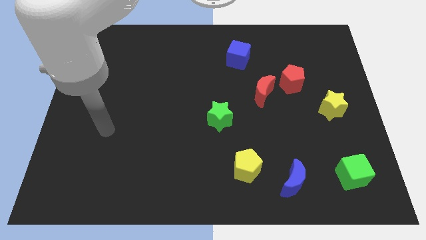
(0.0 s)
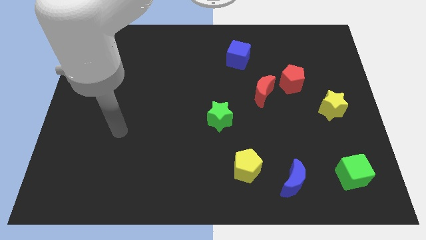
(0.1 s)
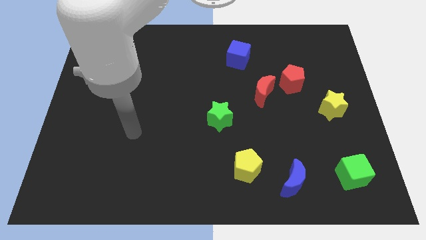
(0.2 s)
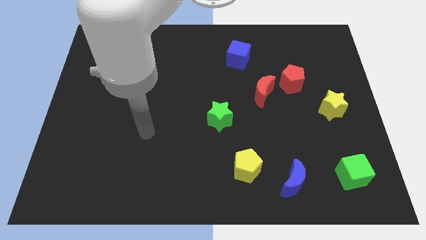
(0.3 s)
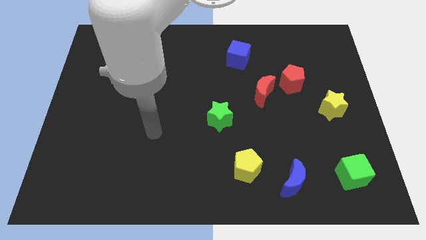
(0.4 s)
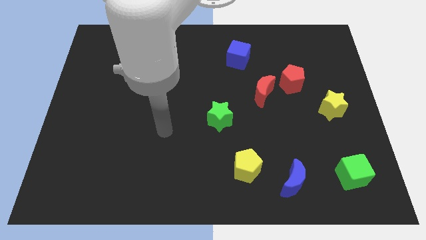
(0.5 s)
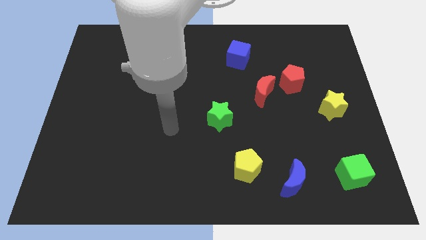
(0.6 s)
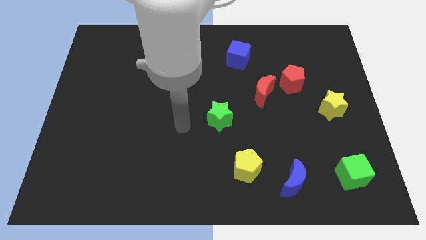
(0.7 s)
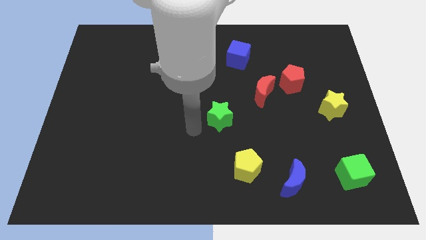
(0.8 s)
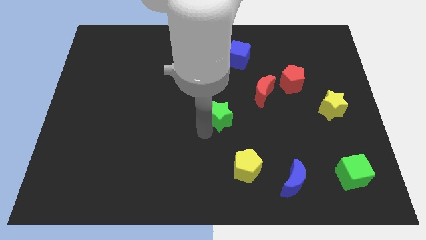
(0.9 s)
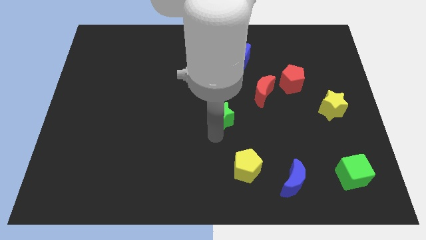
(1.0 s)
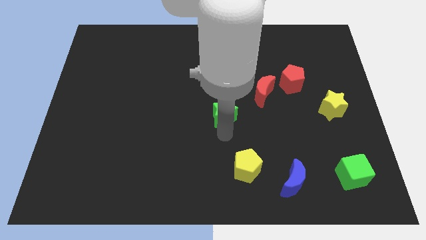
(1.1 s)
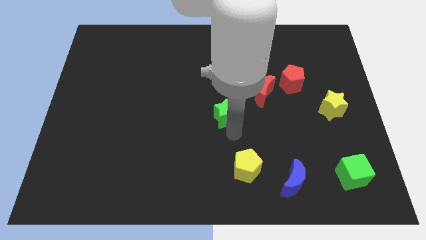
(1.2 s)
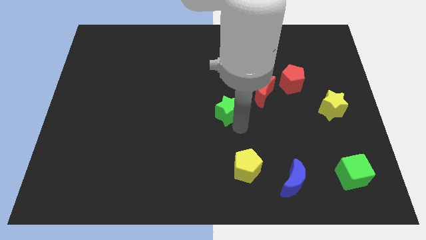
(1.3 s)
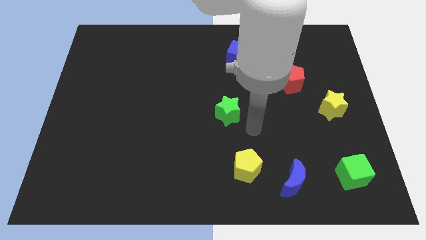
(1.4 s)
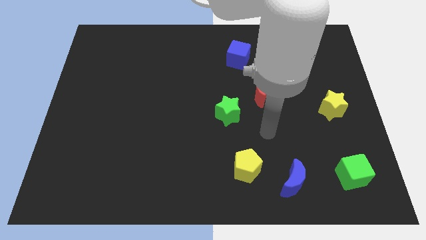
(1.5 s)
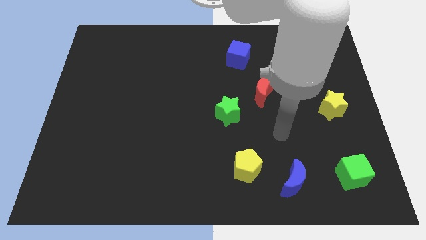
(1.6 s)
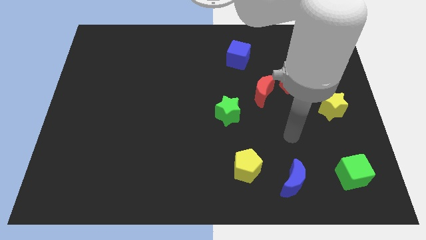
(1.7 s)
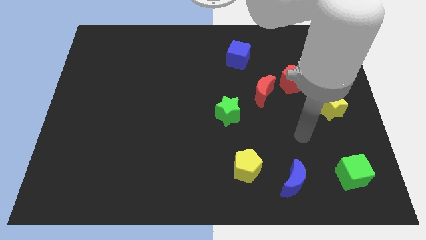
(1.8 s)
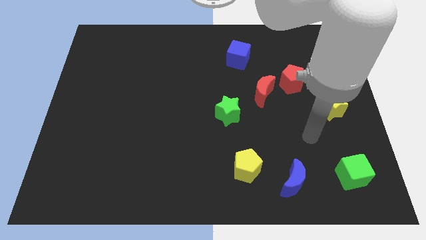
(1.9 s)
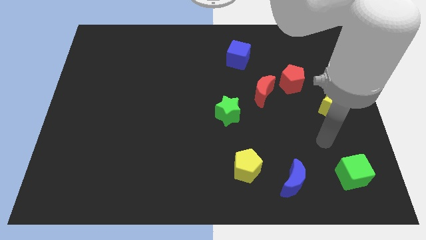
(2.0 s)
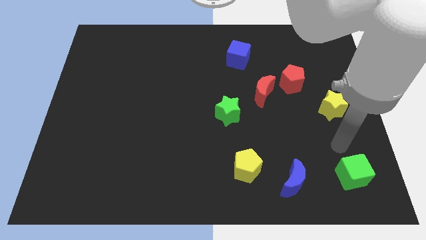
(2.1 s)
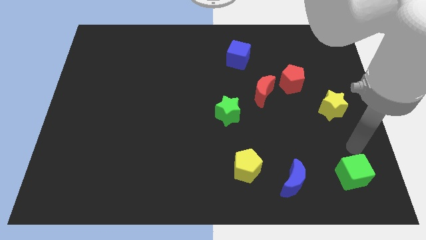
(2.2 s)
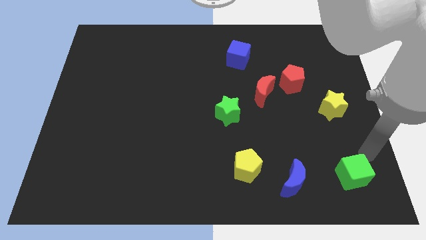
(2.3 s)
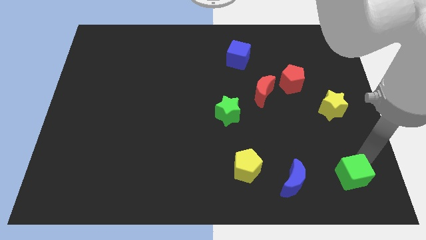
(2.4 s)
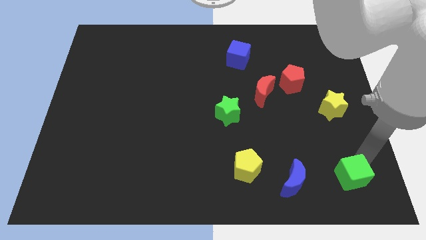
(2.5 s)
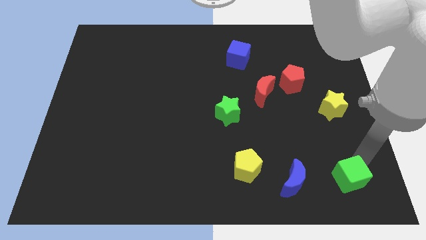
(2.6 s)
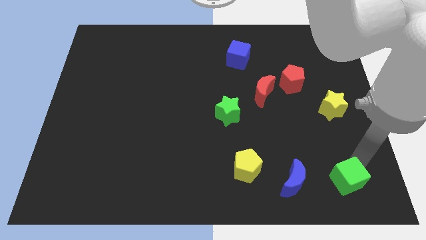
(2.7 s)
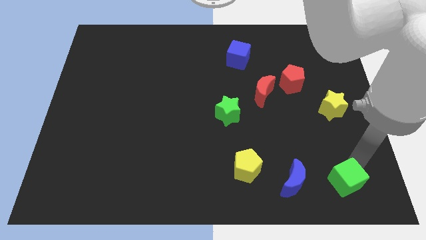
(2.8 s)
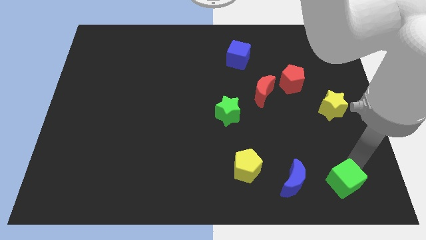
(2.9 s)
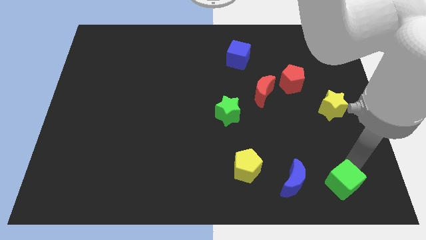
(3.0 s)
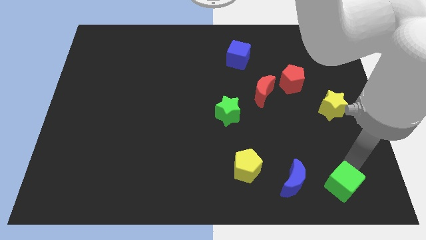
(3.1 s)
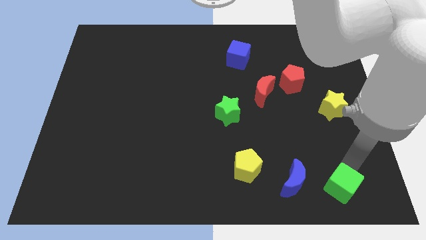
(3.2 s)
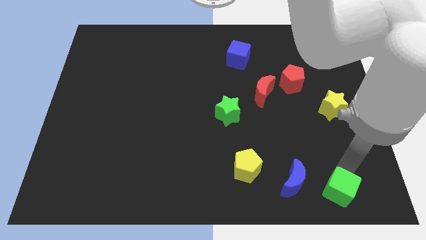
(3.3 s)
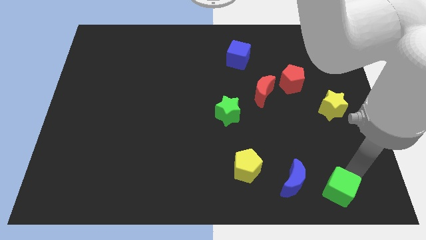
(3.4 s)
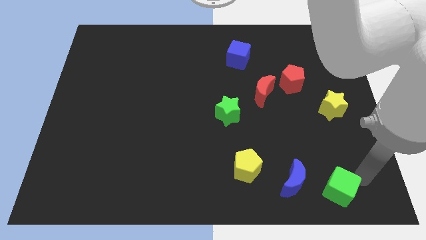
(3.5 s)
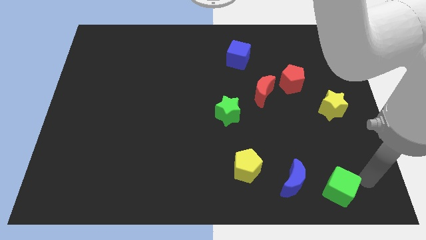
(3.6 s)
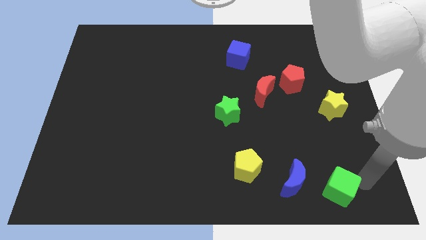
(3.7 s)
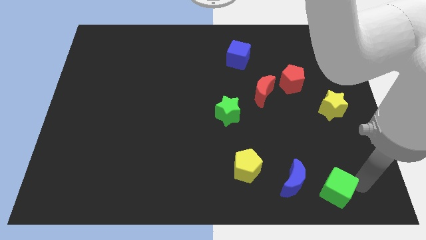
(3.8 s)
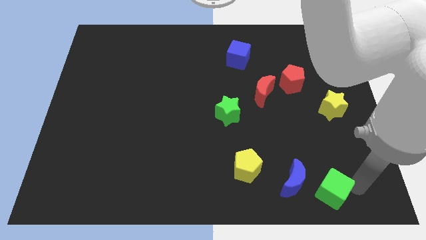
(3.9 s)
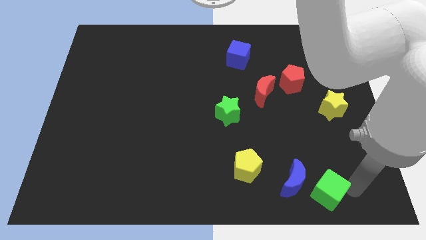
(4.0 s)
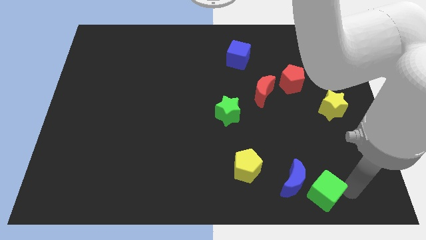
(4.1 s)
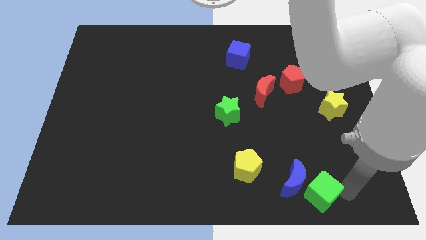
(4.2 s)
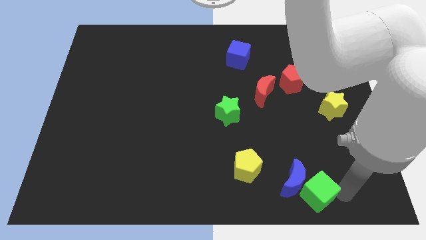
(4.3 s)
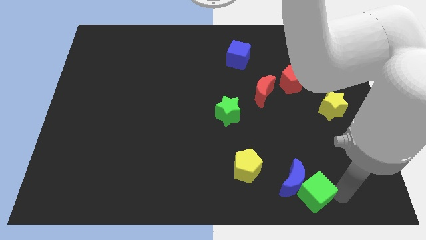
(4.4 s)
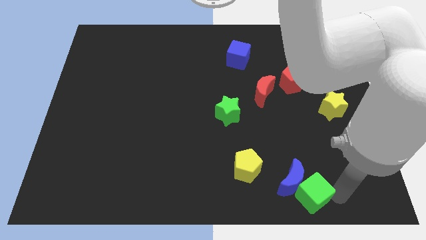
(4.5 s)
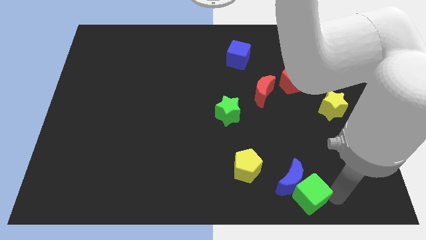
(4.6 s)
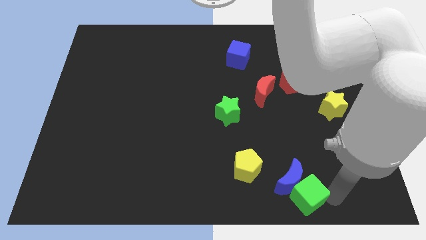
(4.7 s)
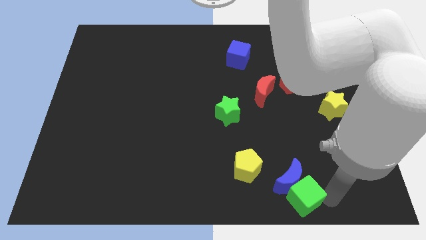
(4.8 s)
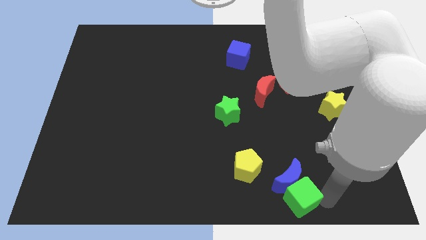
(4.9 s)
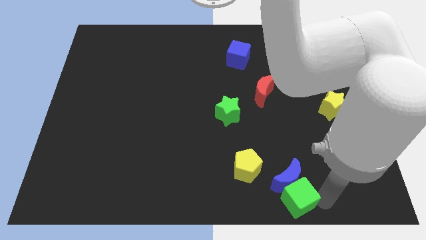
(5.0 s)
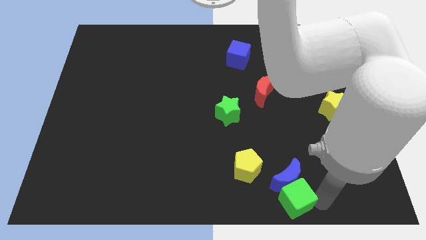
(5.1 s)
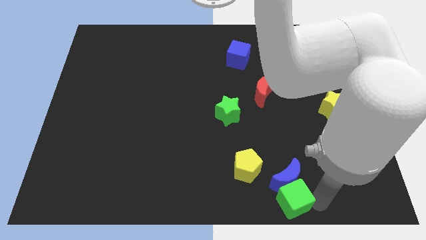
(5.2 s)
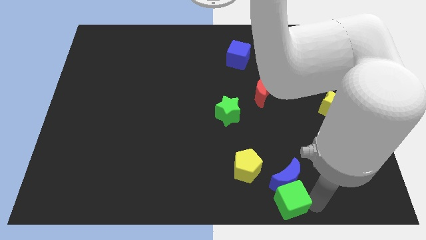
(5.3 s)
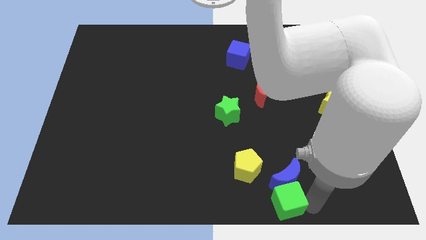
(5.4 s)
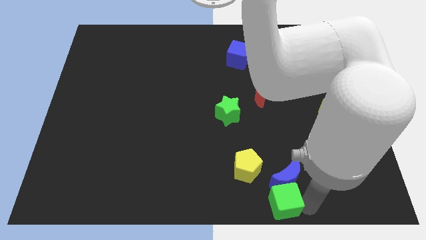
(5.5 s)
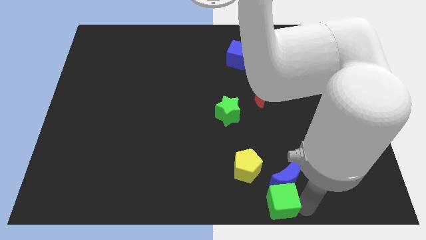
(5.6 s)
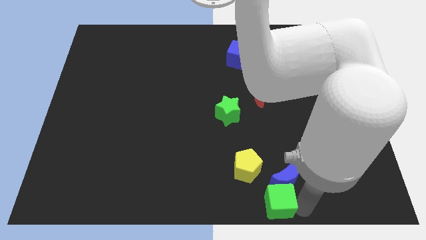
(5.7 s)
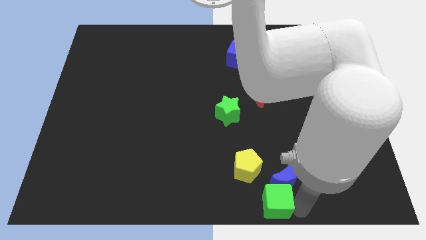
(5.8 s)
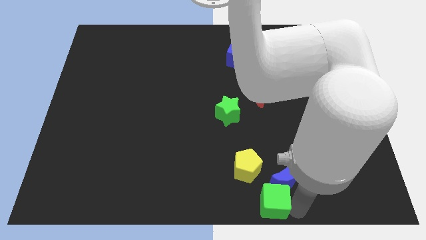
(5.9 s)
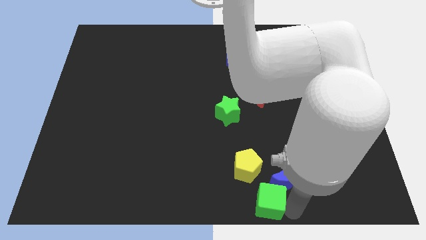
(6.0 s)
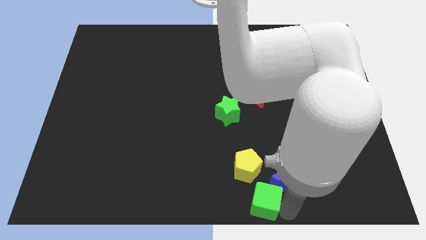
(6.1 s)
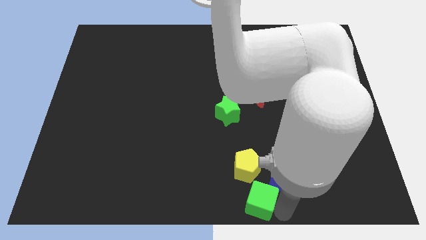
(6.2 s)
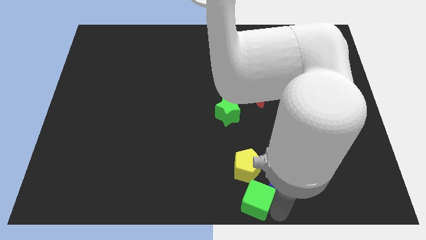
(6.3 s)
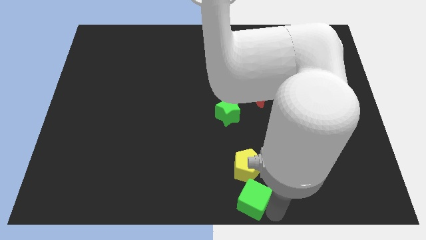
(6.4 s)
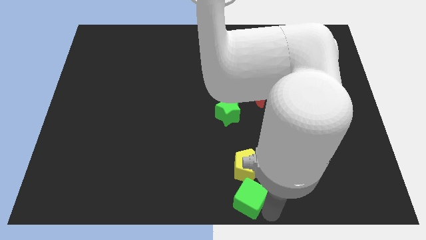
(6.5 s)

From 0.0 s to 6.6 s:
move the green cube left

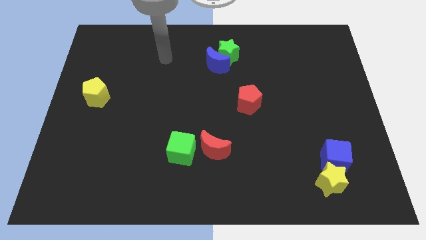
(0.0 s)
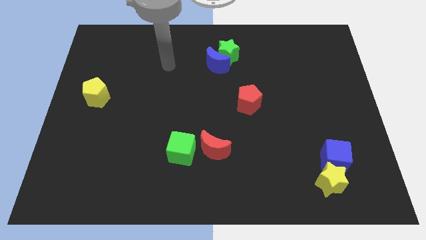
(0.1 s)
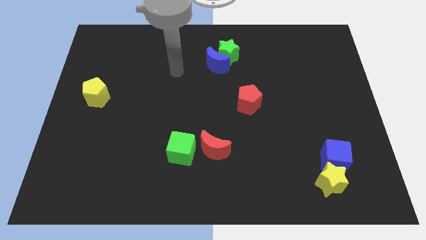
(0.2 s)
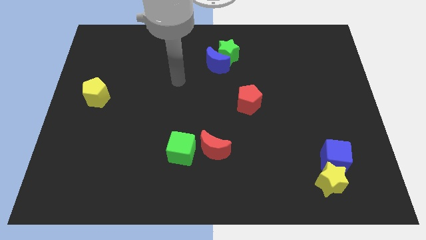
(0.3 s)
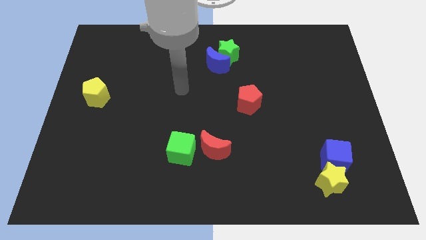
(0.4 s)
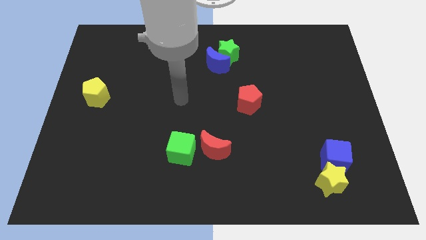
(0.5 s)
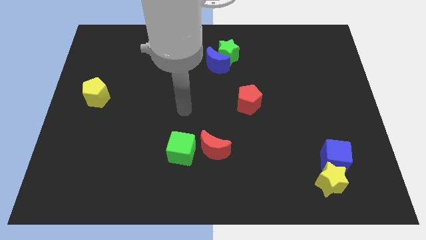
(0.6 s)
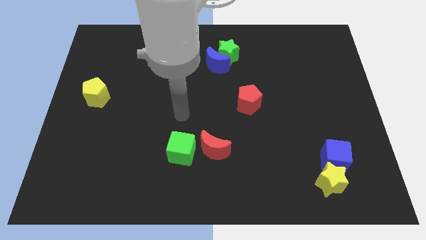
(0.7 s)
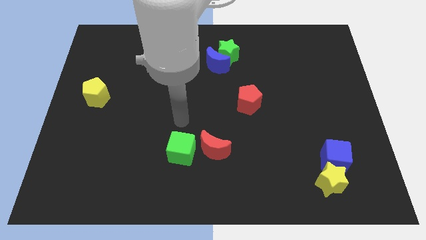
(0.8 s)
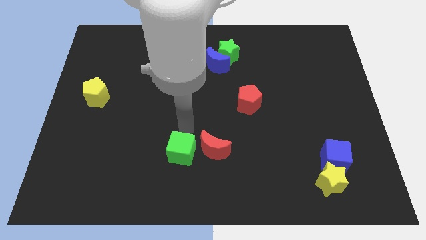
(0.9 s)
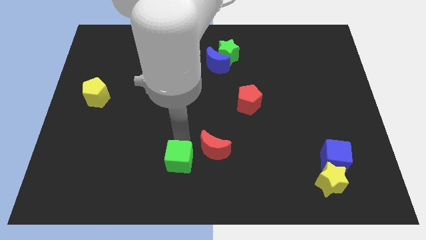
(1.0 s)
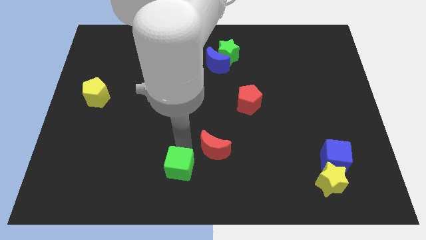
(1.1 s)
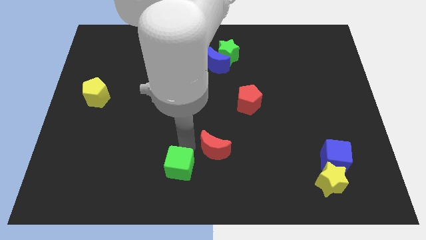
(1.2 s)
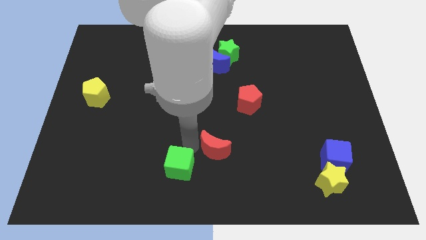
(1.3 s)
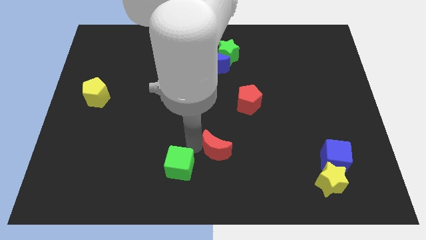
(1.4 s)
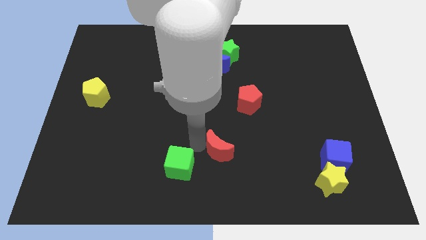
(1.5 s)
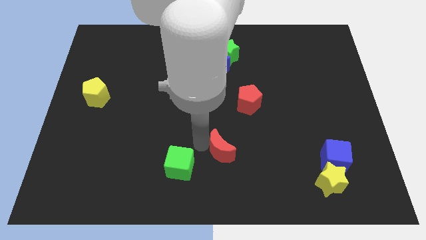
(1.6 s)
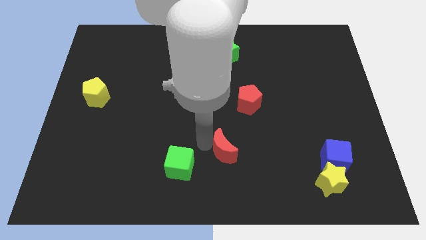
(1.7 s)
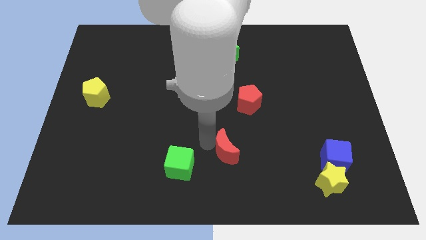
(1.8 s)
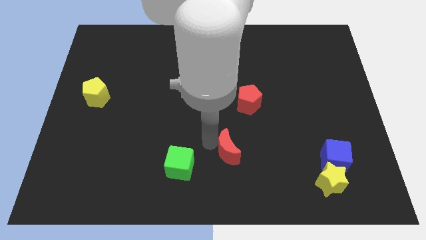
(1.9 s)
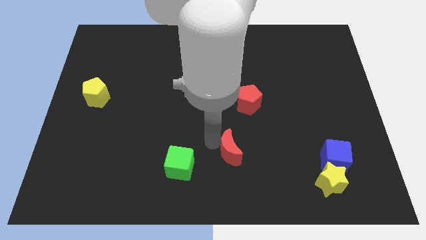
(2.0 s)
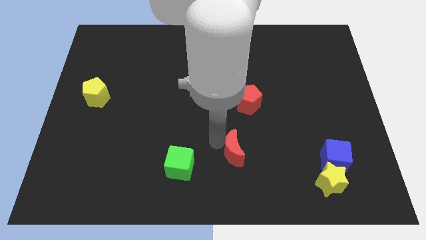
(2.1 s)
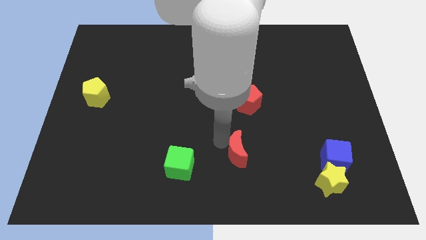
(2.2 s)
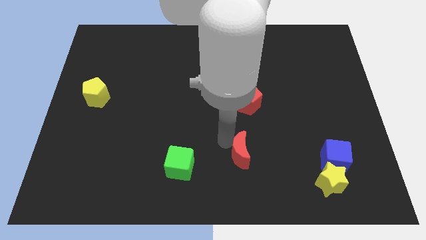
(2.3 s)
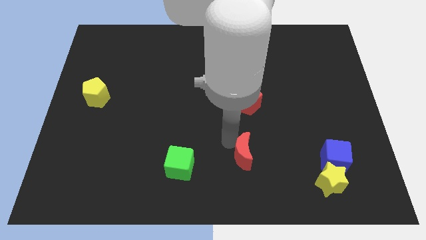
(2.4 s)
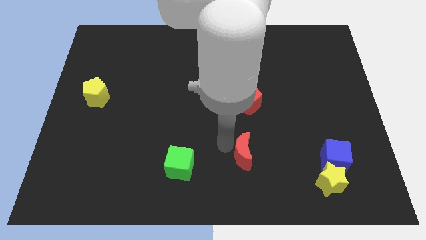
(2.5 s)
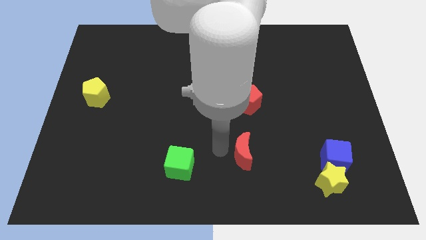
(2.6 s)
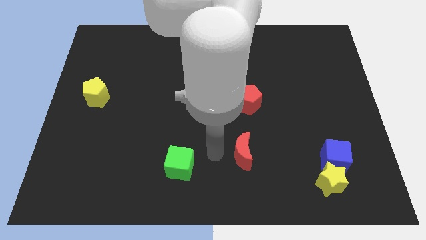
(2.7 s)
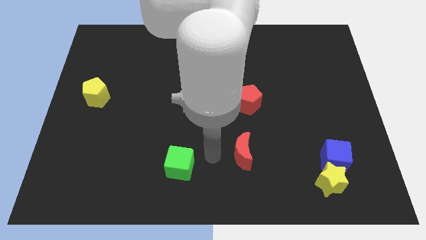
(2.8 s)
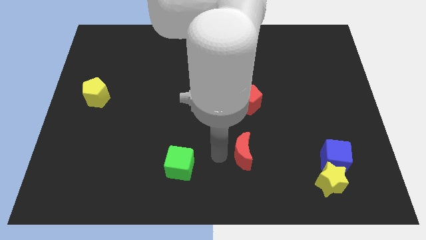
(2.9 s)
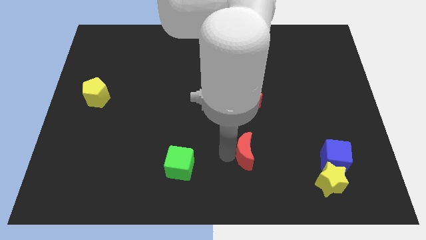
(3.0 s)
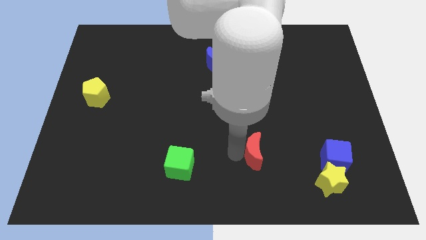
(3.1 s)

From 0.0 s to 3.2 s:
push the red moon to the right a bit
